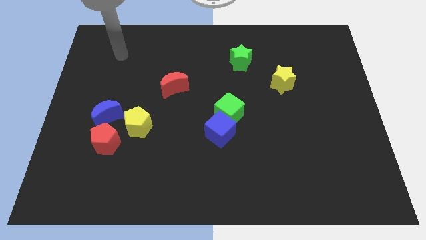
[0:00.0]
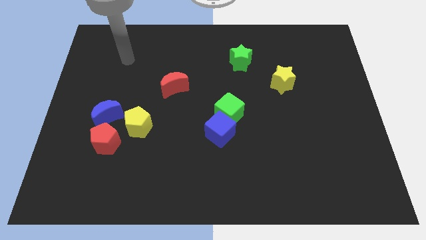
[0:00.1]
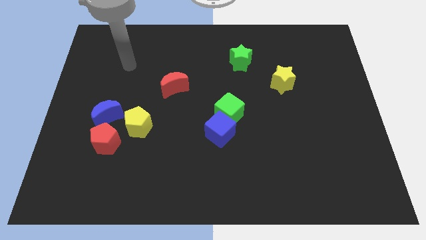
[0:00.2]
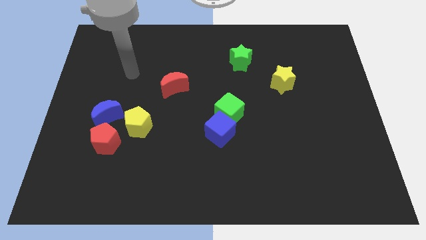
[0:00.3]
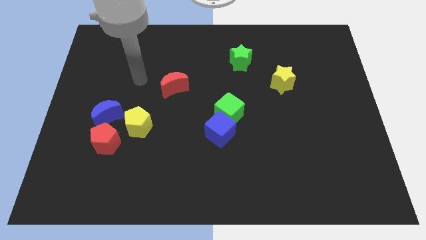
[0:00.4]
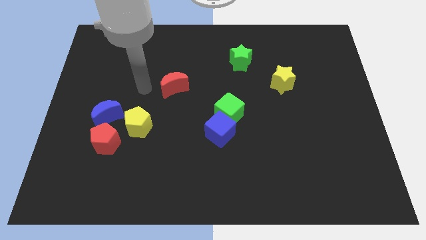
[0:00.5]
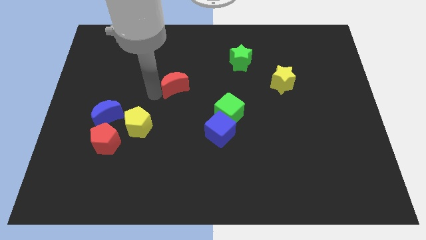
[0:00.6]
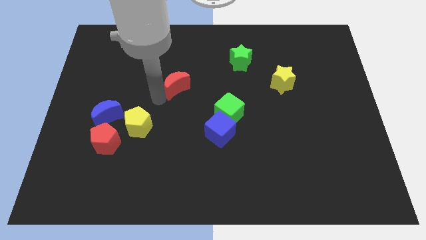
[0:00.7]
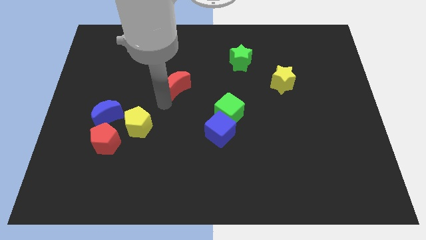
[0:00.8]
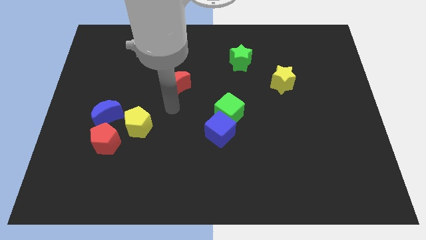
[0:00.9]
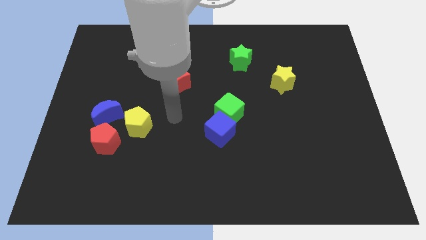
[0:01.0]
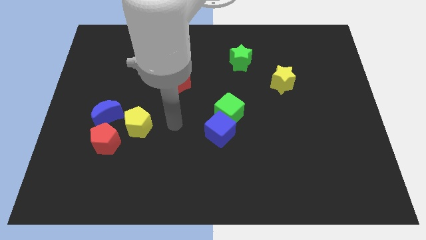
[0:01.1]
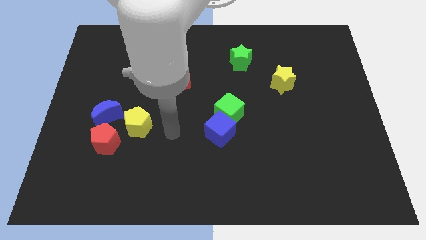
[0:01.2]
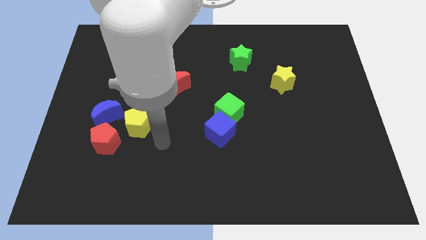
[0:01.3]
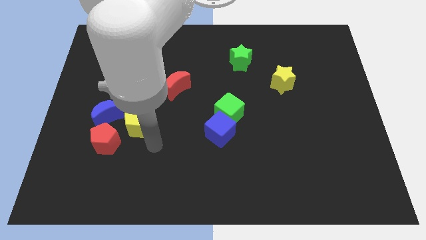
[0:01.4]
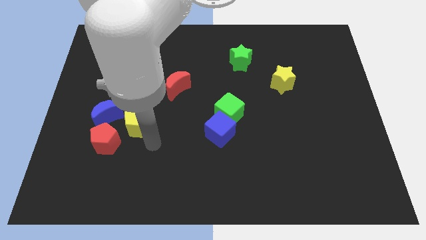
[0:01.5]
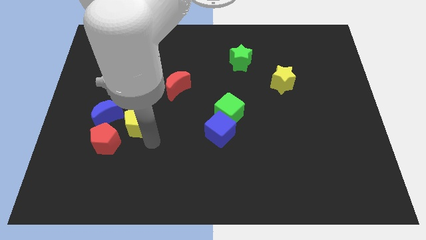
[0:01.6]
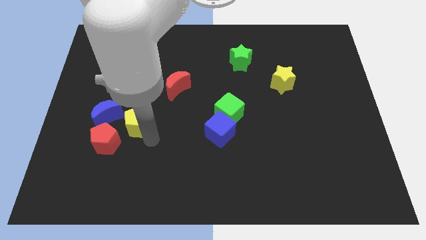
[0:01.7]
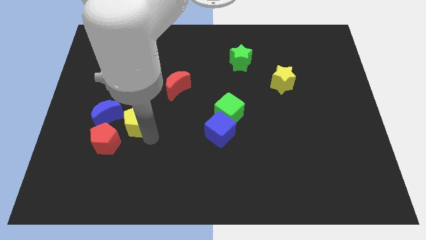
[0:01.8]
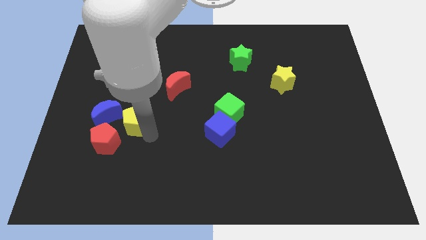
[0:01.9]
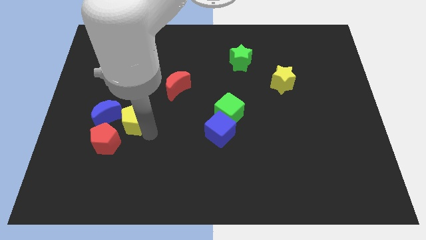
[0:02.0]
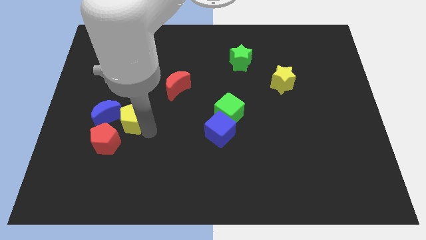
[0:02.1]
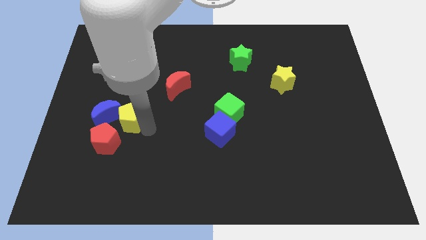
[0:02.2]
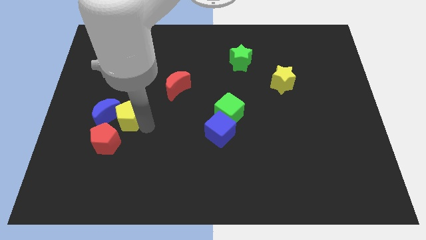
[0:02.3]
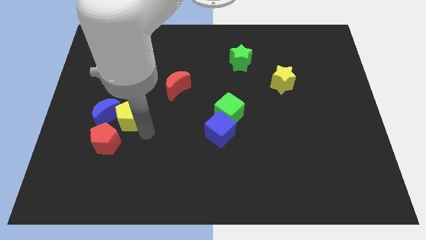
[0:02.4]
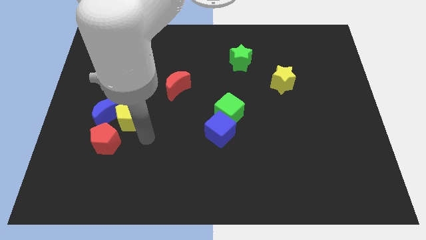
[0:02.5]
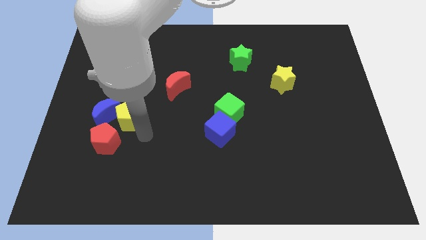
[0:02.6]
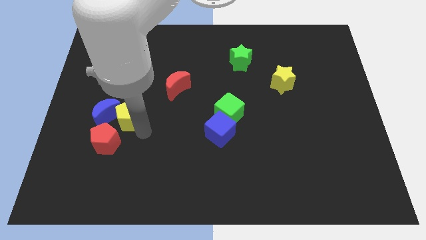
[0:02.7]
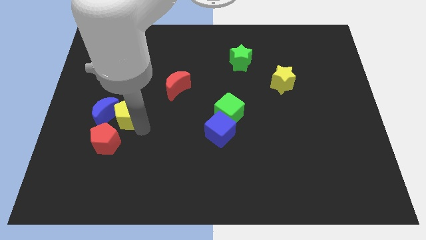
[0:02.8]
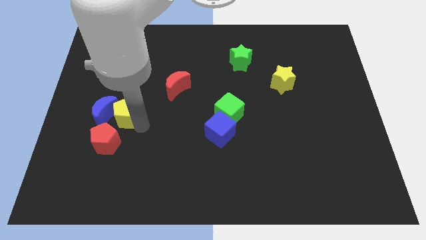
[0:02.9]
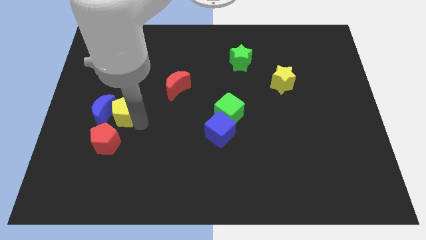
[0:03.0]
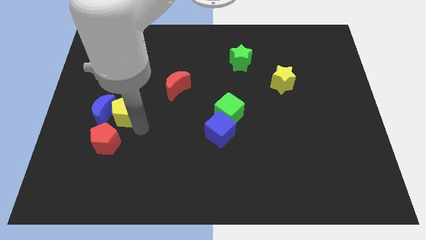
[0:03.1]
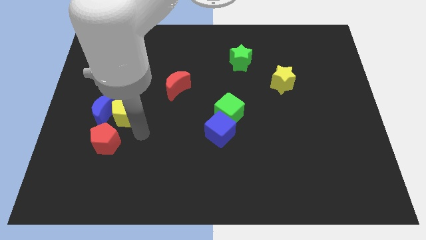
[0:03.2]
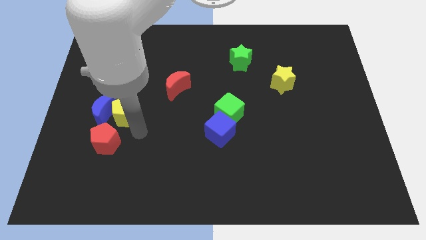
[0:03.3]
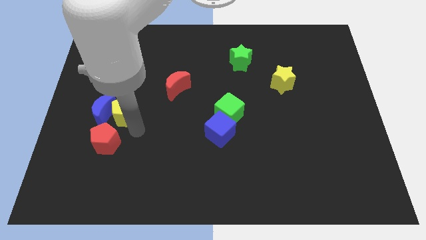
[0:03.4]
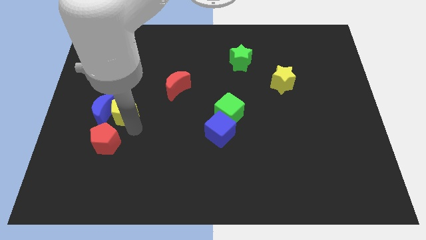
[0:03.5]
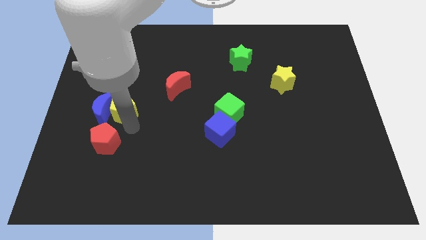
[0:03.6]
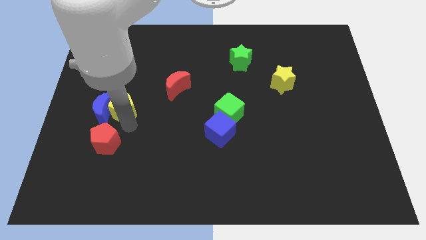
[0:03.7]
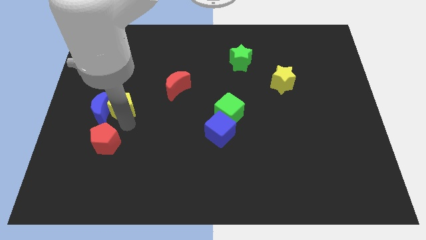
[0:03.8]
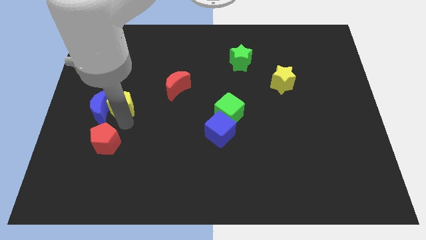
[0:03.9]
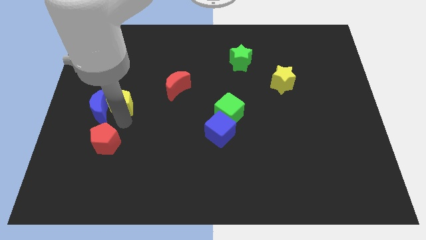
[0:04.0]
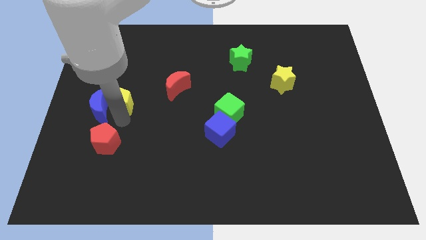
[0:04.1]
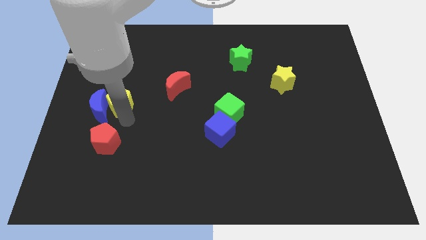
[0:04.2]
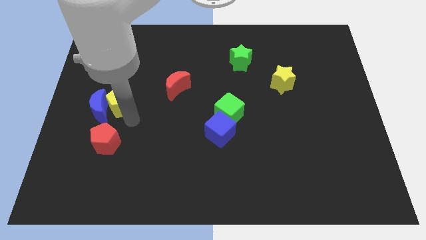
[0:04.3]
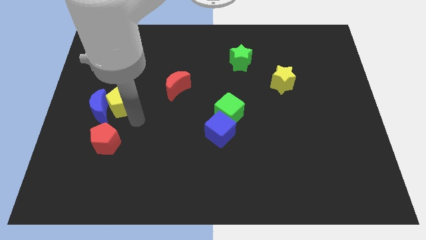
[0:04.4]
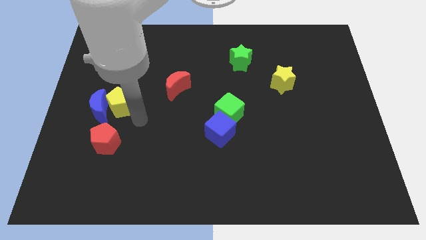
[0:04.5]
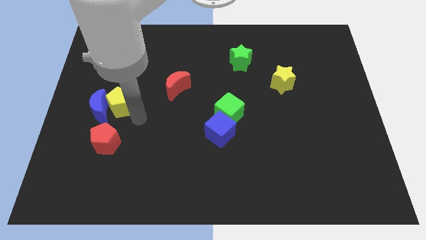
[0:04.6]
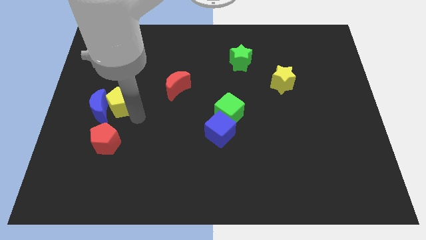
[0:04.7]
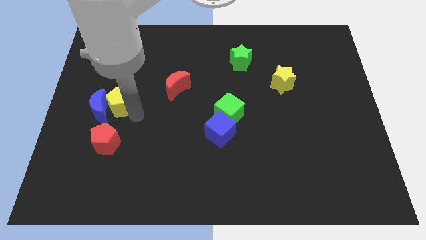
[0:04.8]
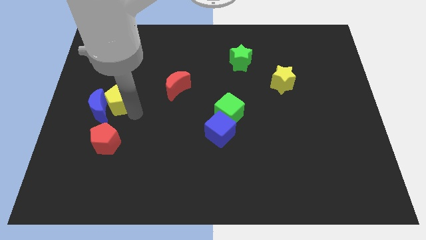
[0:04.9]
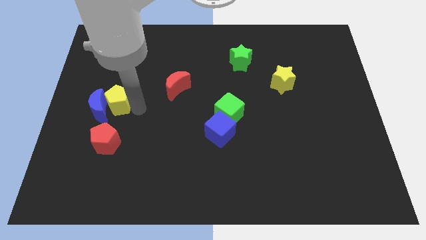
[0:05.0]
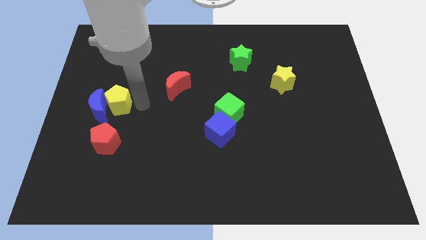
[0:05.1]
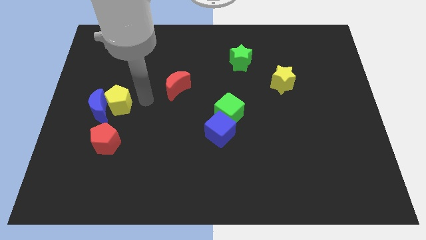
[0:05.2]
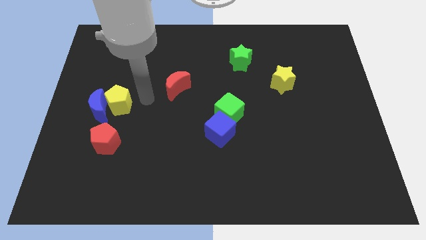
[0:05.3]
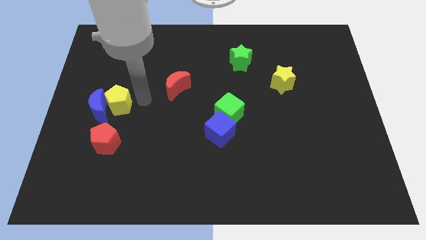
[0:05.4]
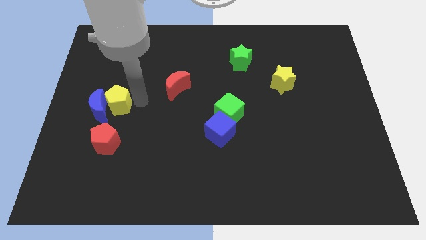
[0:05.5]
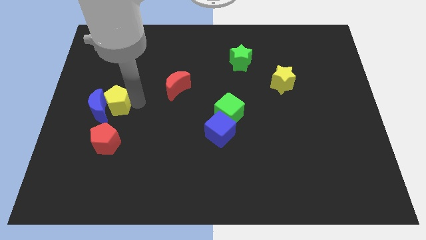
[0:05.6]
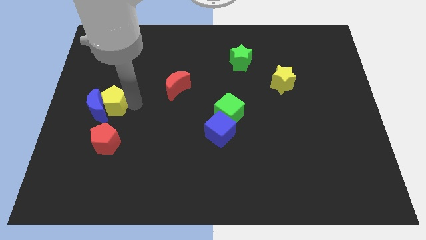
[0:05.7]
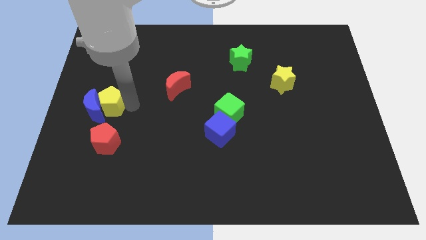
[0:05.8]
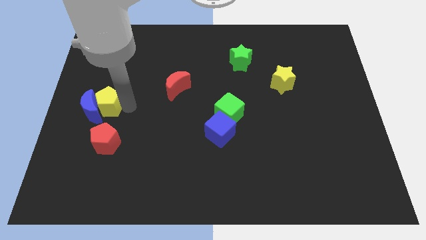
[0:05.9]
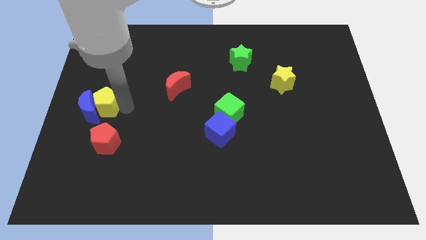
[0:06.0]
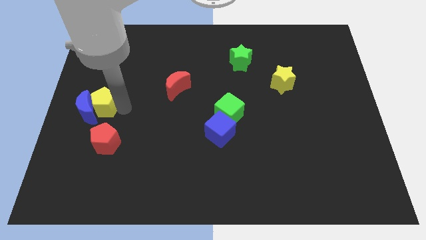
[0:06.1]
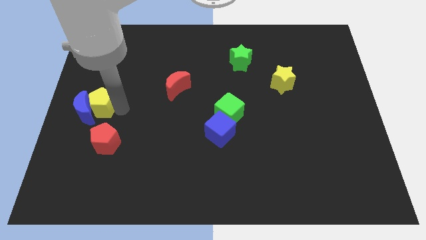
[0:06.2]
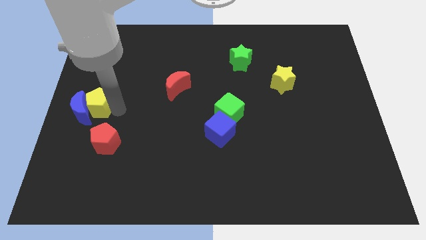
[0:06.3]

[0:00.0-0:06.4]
put the yellow pentagon to the top left side of the red pentagon

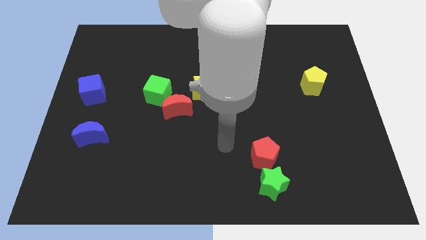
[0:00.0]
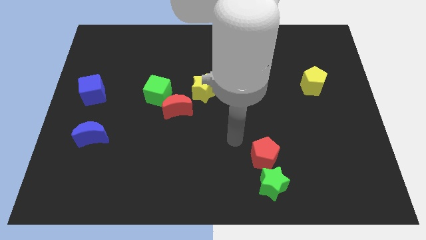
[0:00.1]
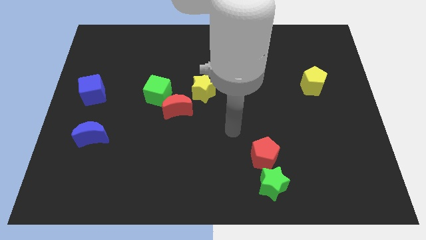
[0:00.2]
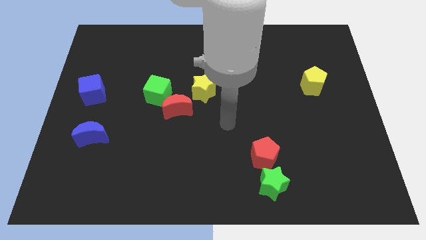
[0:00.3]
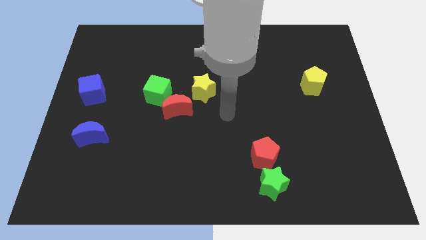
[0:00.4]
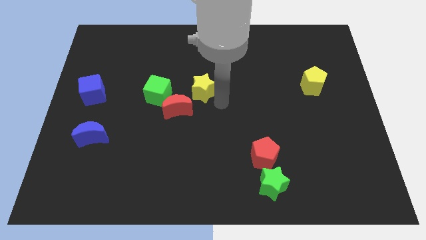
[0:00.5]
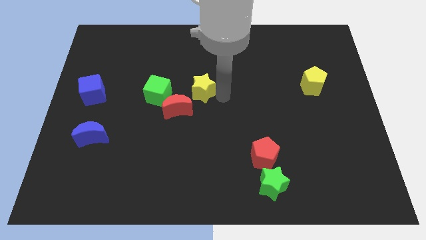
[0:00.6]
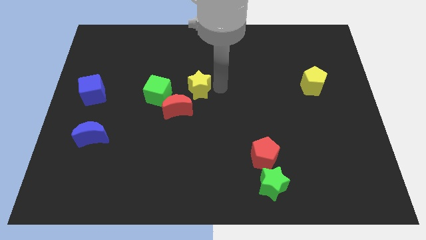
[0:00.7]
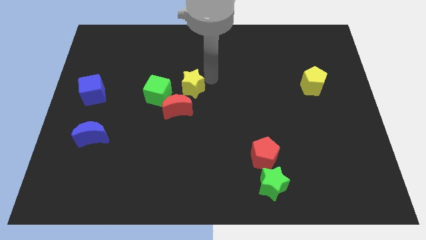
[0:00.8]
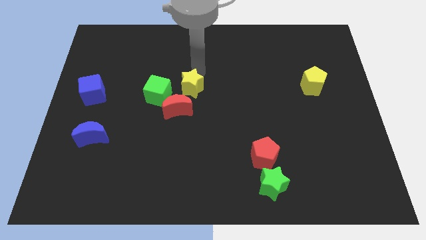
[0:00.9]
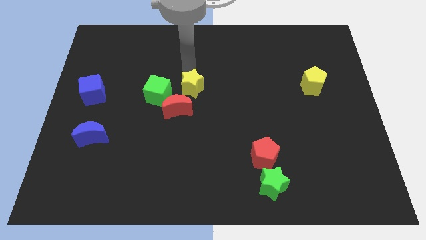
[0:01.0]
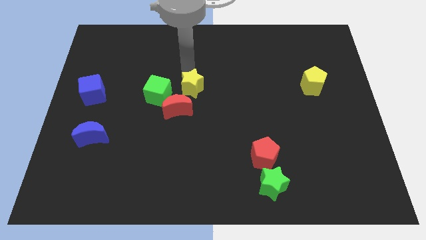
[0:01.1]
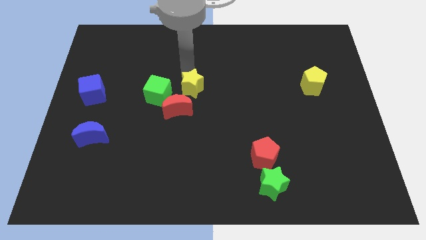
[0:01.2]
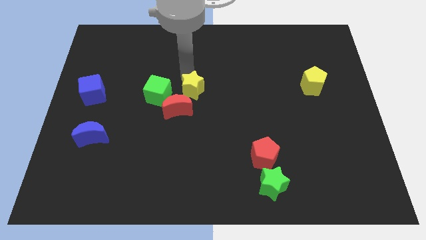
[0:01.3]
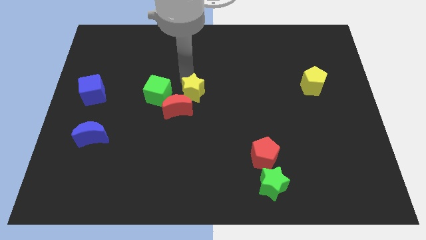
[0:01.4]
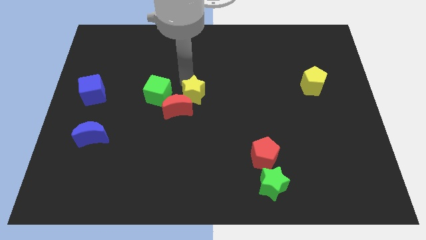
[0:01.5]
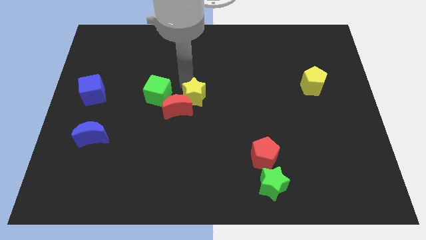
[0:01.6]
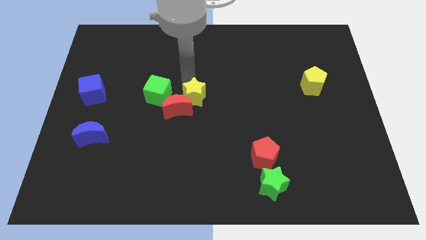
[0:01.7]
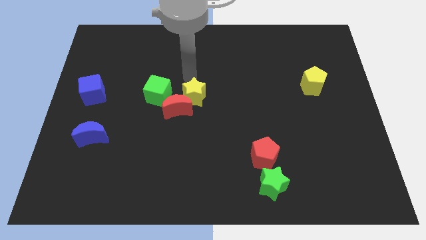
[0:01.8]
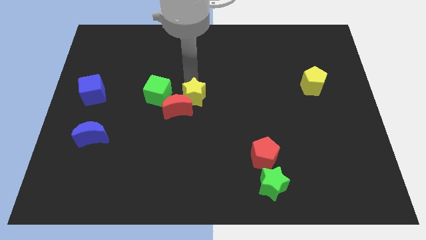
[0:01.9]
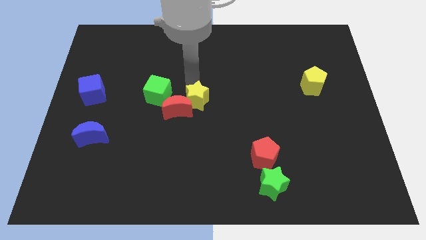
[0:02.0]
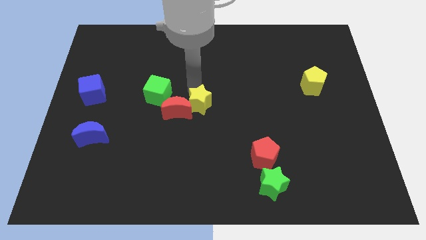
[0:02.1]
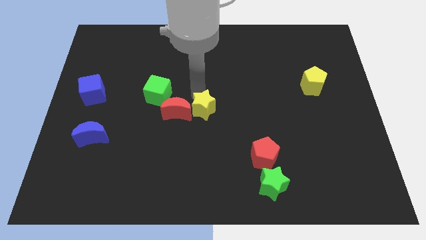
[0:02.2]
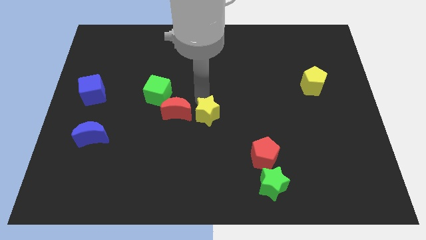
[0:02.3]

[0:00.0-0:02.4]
push the yellow star to the bottom right side of the red moon
